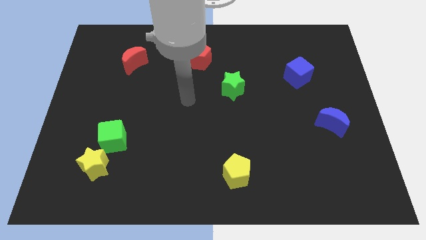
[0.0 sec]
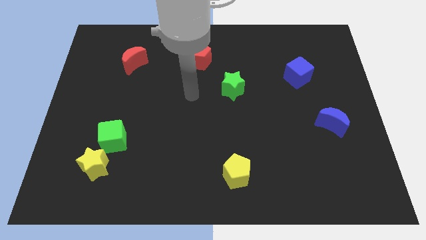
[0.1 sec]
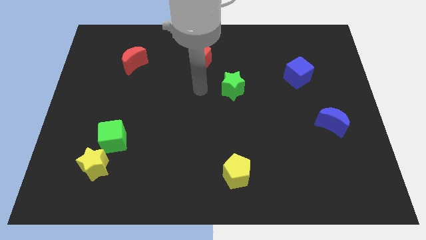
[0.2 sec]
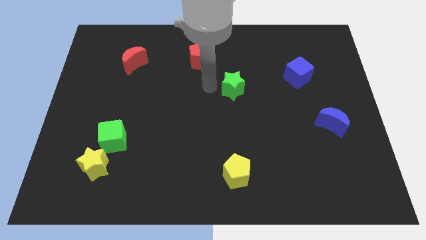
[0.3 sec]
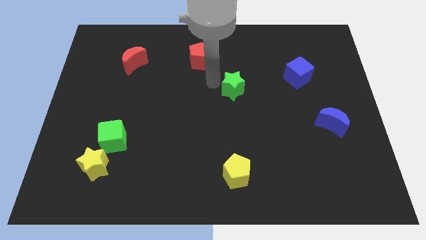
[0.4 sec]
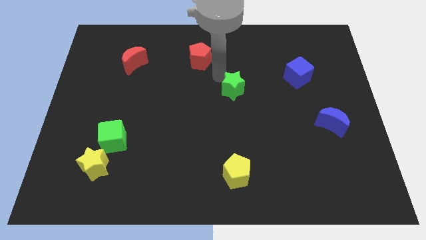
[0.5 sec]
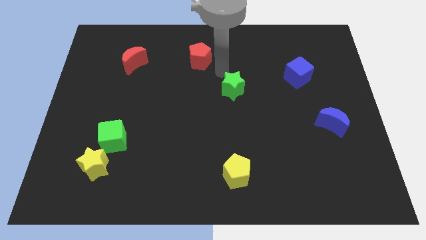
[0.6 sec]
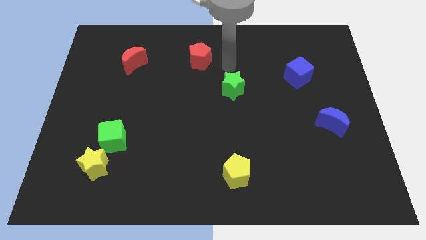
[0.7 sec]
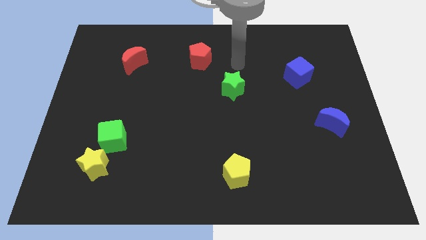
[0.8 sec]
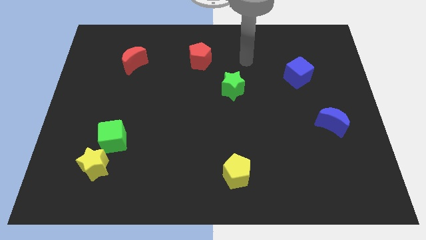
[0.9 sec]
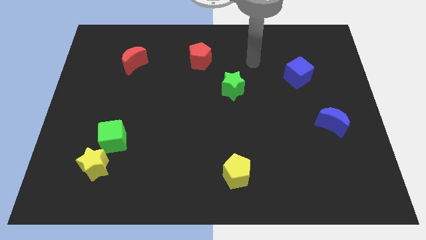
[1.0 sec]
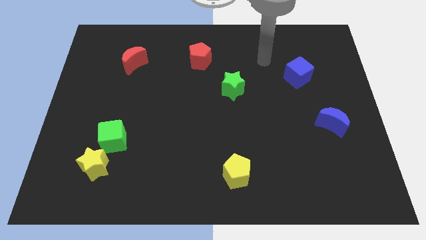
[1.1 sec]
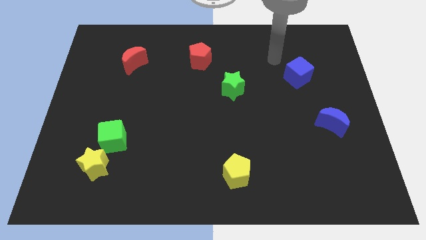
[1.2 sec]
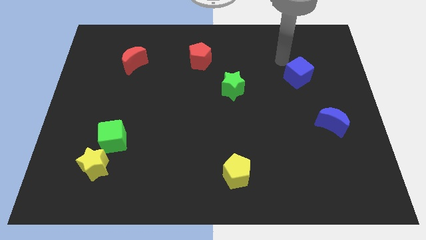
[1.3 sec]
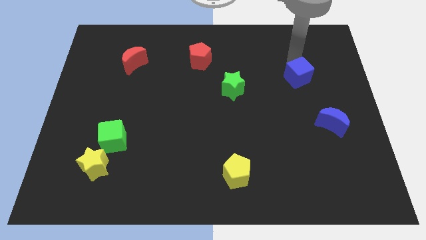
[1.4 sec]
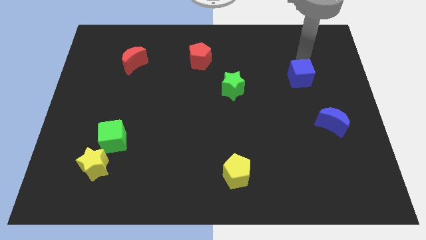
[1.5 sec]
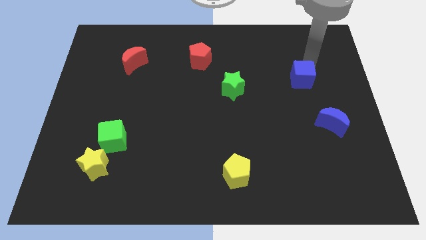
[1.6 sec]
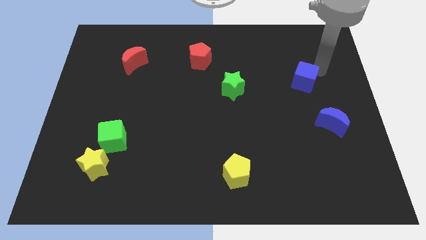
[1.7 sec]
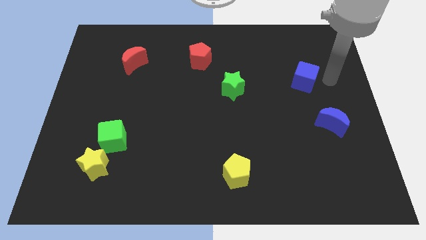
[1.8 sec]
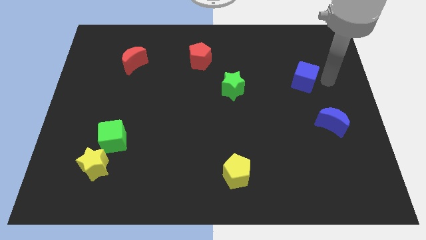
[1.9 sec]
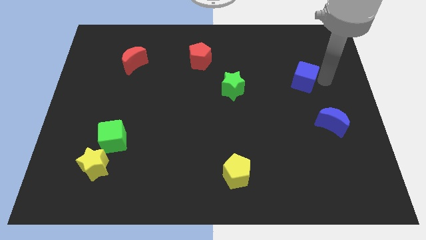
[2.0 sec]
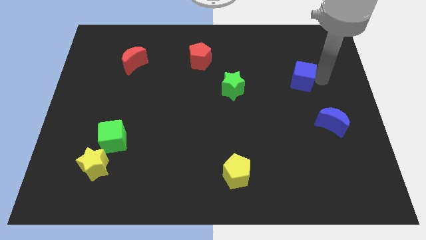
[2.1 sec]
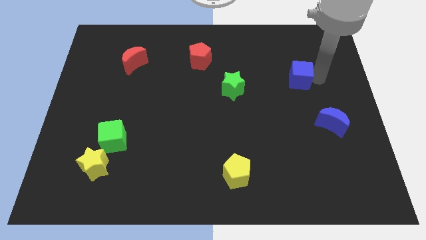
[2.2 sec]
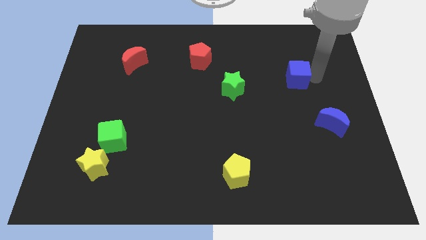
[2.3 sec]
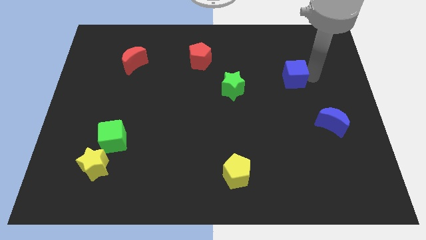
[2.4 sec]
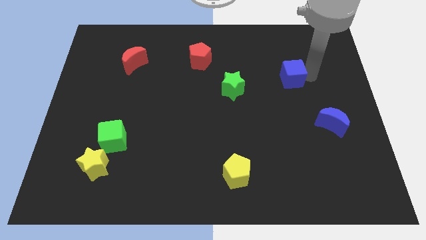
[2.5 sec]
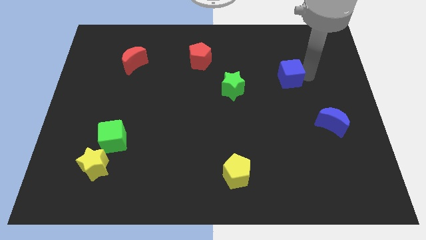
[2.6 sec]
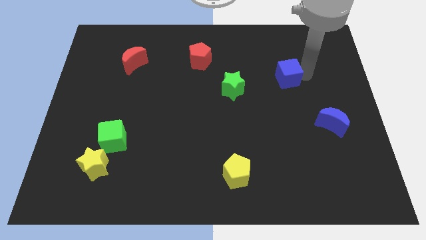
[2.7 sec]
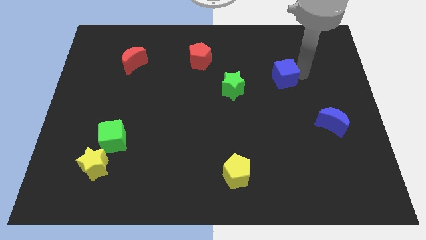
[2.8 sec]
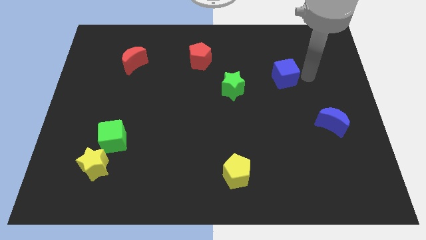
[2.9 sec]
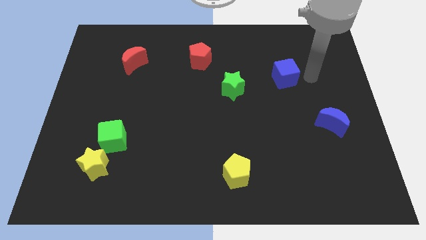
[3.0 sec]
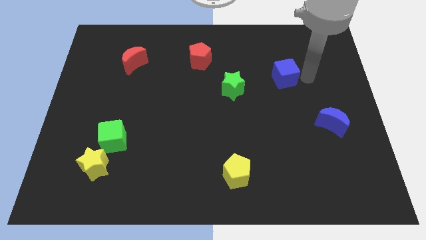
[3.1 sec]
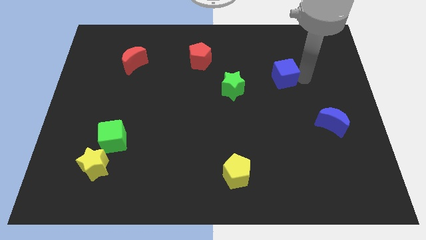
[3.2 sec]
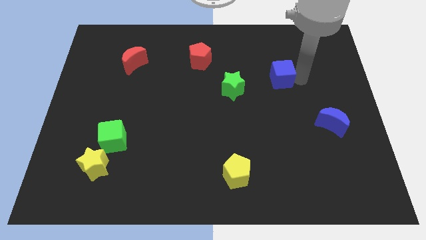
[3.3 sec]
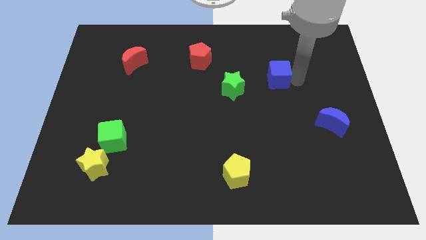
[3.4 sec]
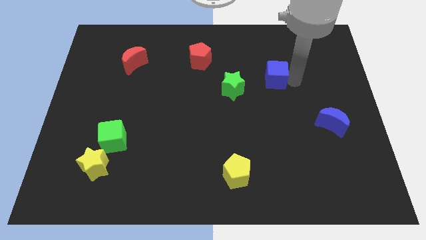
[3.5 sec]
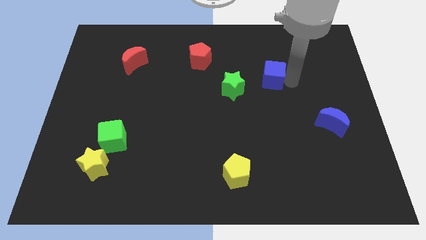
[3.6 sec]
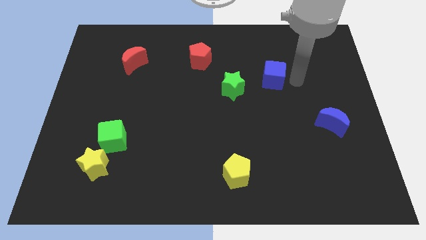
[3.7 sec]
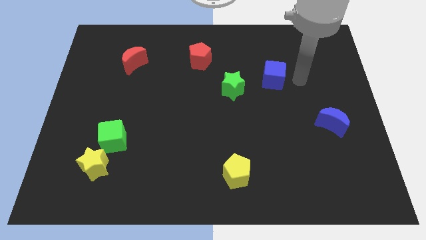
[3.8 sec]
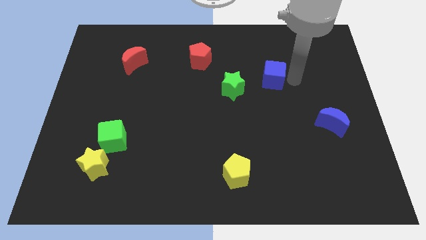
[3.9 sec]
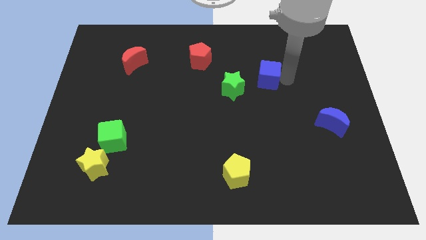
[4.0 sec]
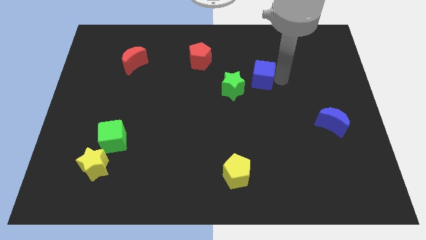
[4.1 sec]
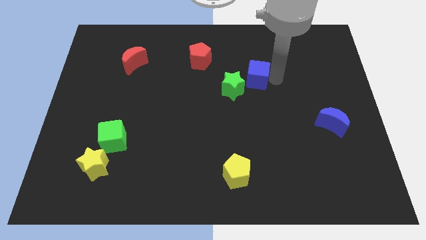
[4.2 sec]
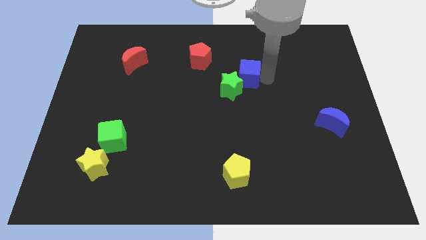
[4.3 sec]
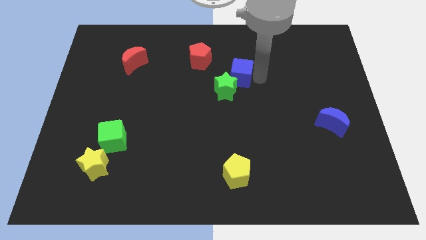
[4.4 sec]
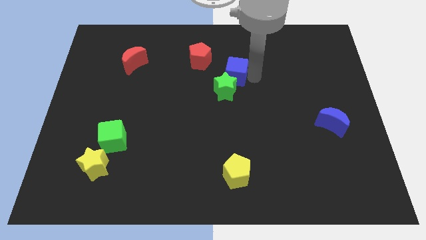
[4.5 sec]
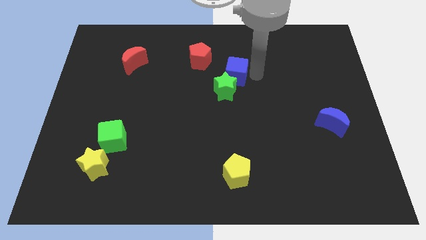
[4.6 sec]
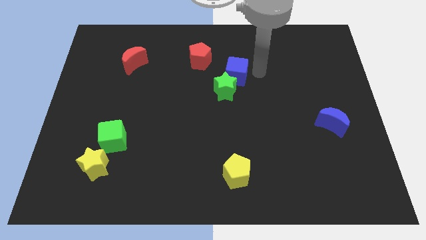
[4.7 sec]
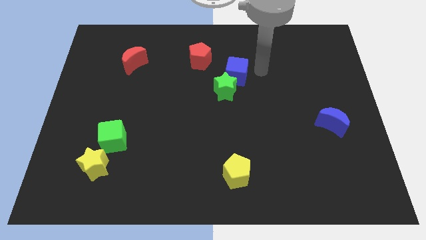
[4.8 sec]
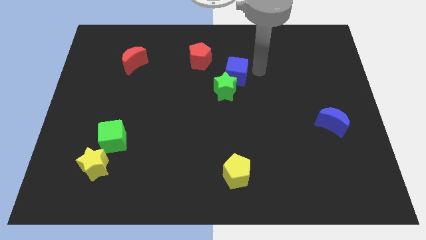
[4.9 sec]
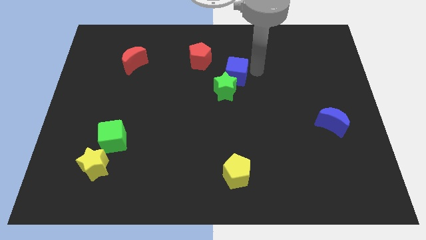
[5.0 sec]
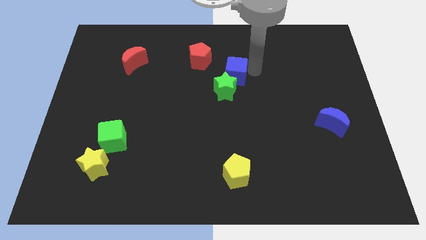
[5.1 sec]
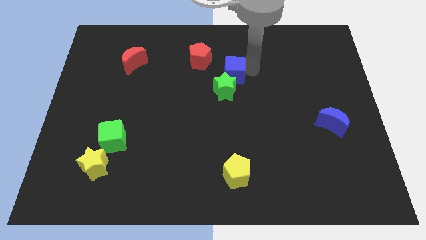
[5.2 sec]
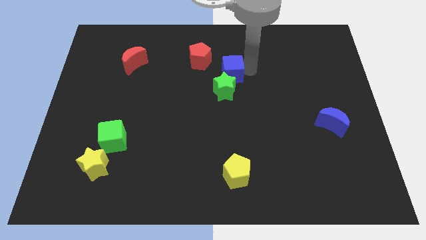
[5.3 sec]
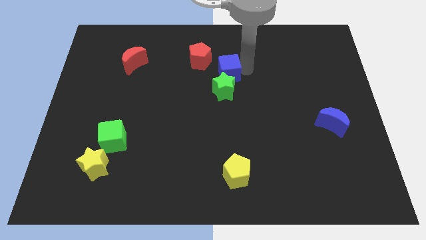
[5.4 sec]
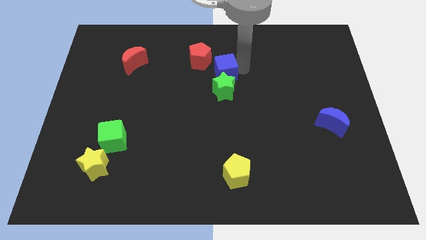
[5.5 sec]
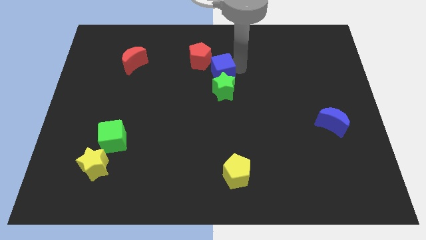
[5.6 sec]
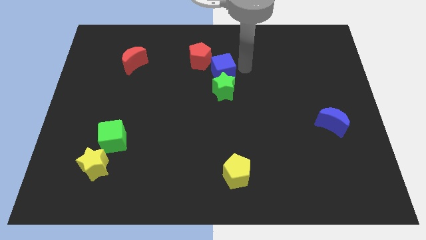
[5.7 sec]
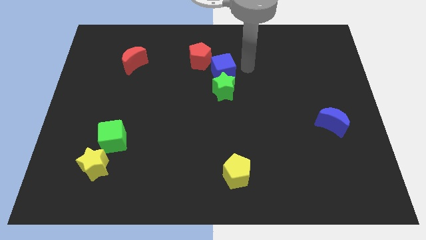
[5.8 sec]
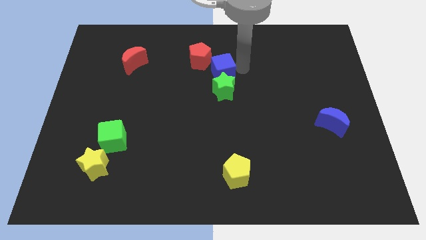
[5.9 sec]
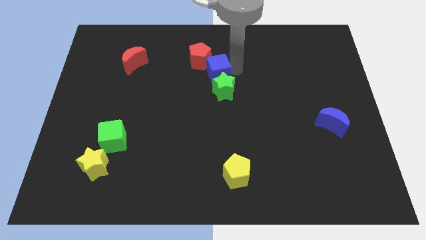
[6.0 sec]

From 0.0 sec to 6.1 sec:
push the blue cube to the left

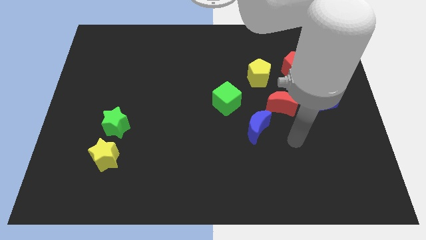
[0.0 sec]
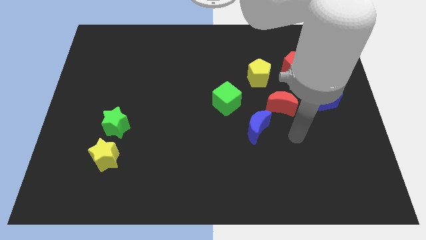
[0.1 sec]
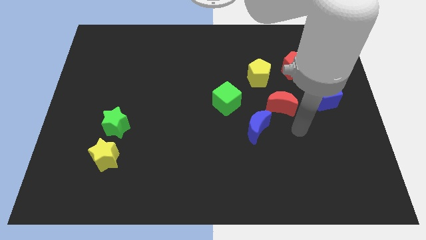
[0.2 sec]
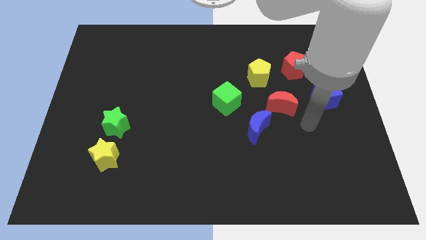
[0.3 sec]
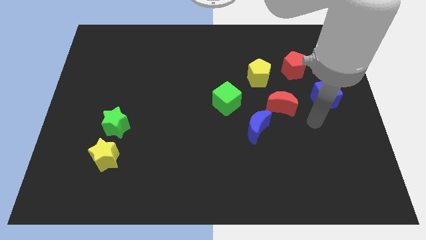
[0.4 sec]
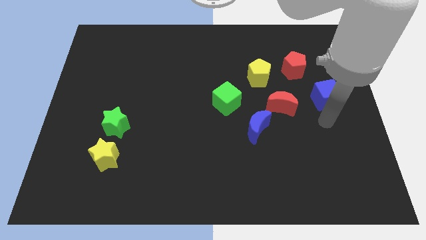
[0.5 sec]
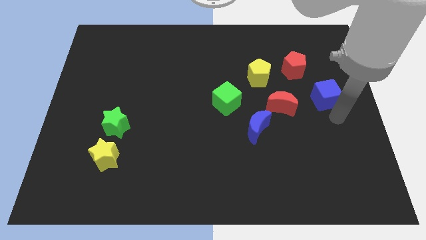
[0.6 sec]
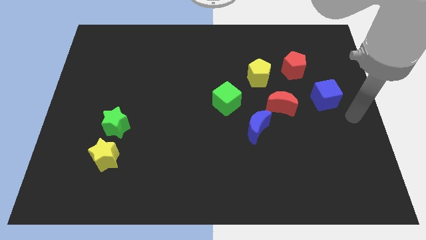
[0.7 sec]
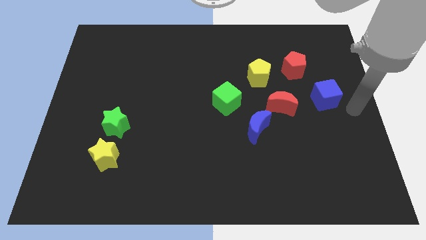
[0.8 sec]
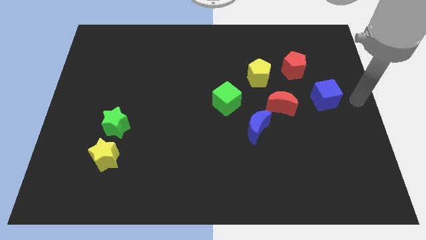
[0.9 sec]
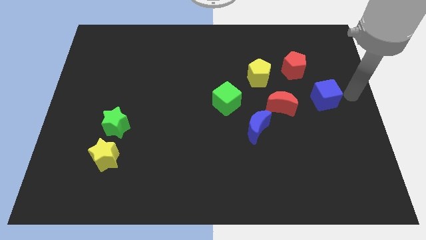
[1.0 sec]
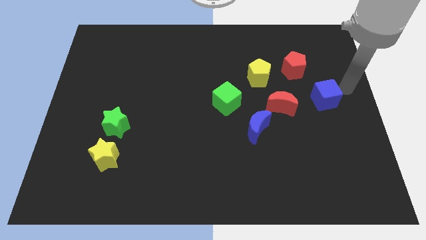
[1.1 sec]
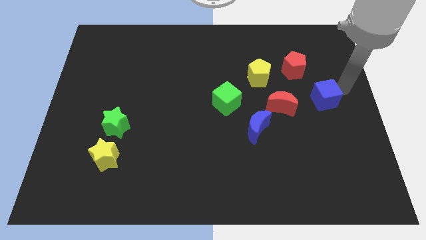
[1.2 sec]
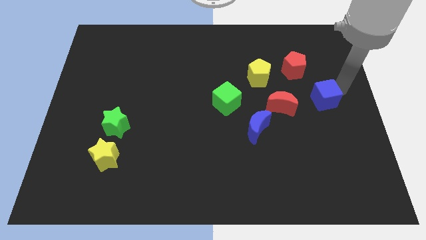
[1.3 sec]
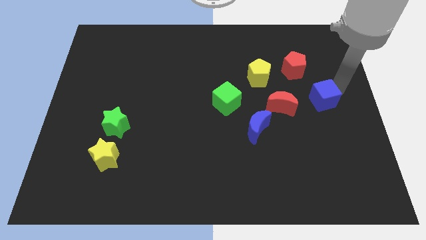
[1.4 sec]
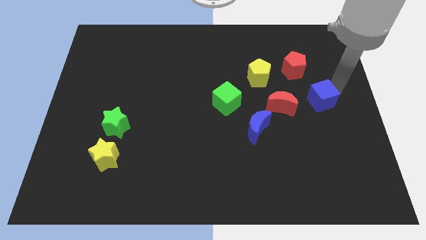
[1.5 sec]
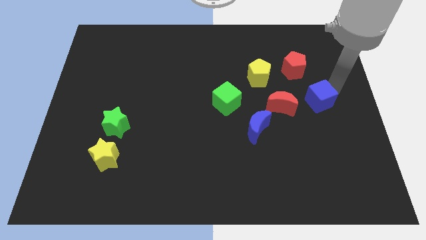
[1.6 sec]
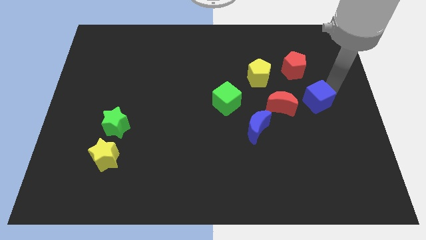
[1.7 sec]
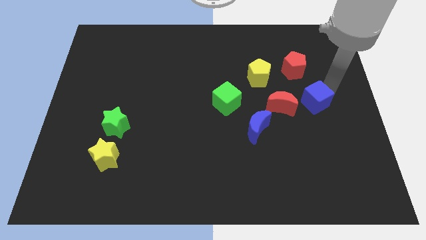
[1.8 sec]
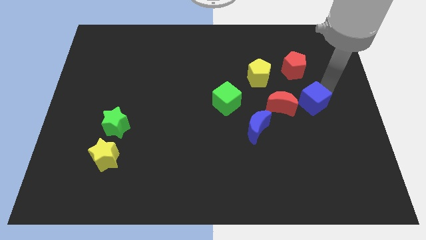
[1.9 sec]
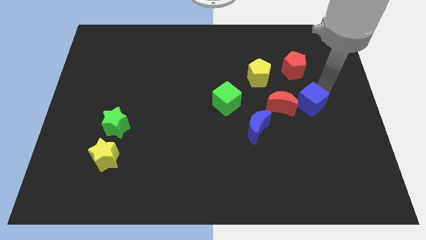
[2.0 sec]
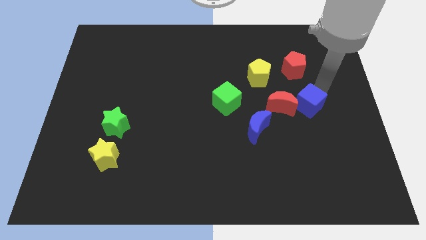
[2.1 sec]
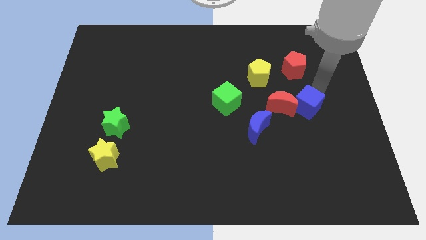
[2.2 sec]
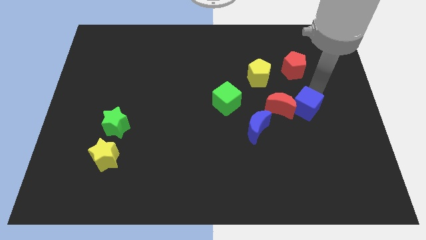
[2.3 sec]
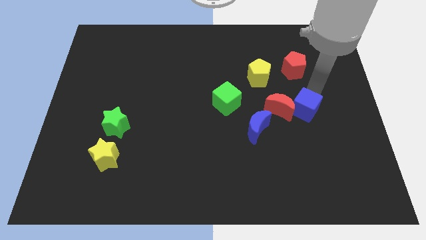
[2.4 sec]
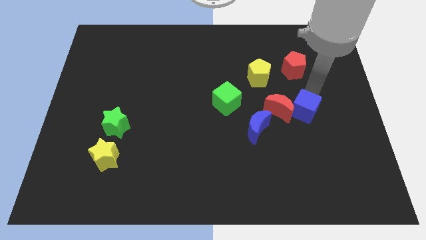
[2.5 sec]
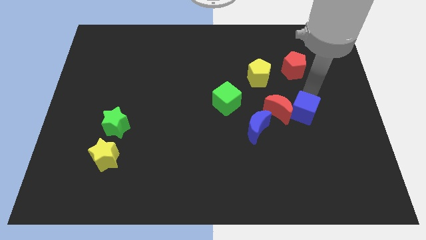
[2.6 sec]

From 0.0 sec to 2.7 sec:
slightly push the blue cube diagonally downwards and left
